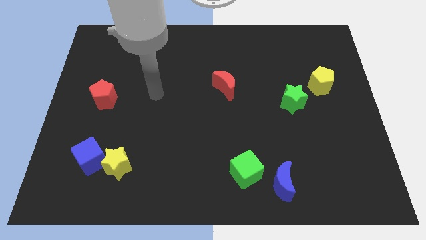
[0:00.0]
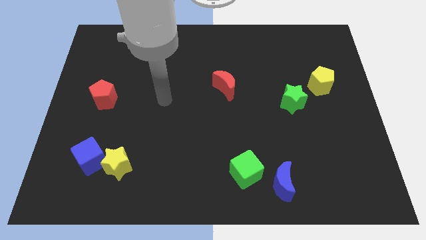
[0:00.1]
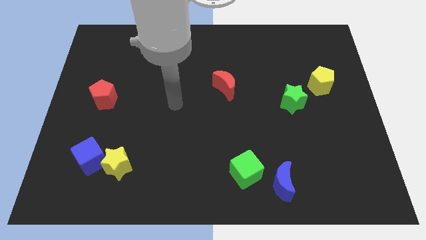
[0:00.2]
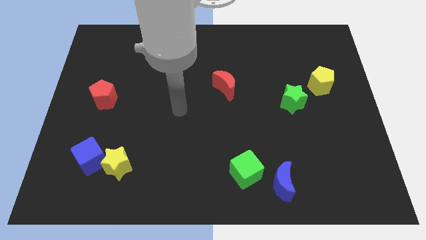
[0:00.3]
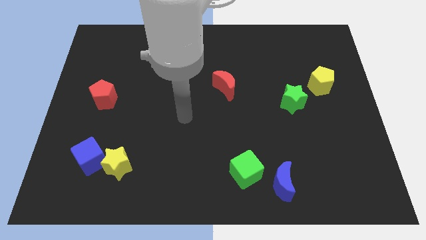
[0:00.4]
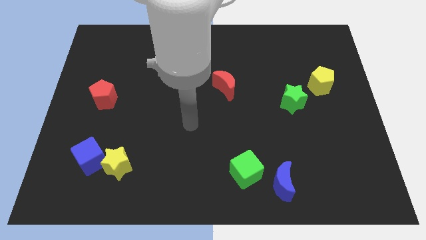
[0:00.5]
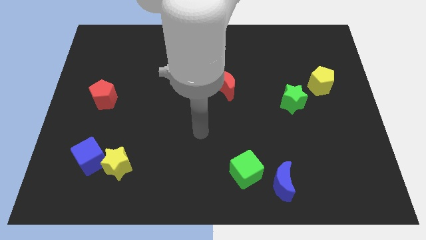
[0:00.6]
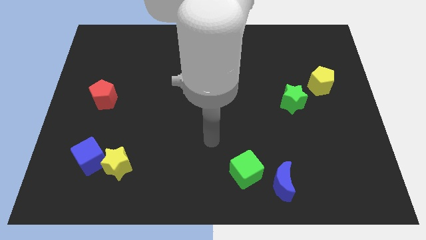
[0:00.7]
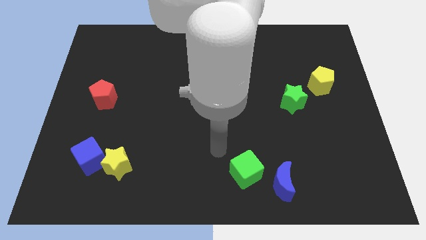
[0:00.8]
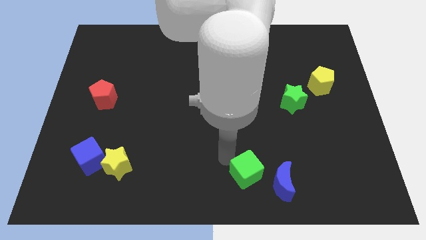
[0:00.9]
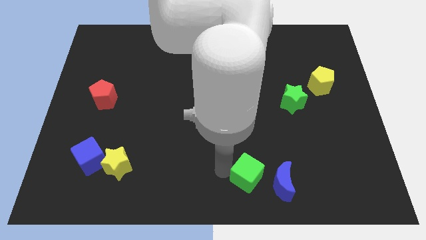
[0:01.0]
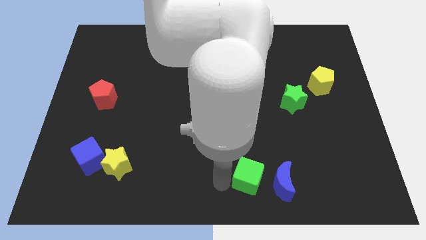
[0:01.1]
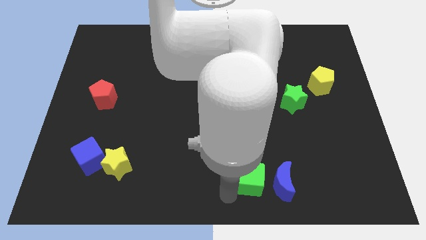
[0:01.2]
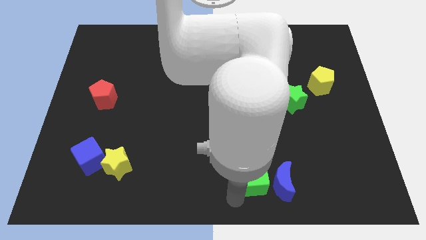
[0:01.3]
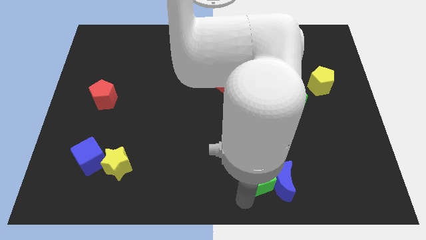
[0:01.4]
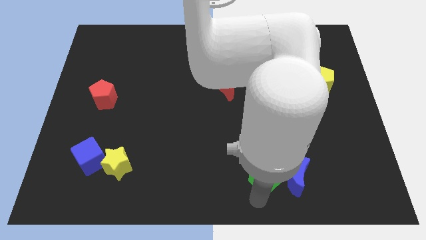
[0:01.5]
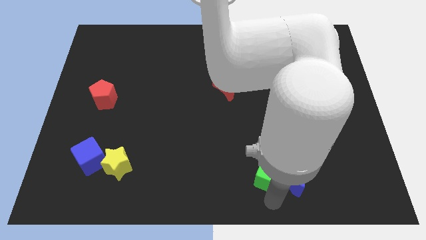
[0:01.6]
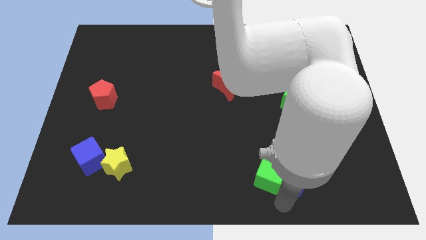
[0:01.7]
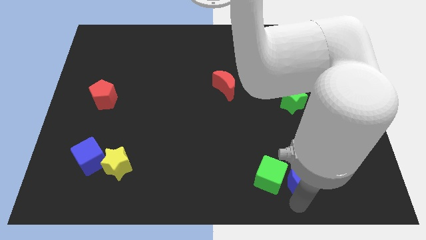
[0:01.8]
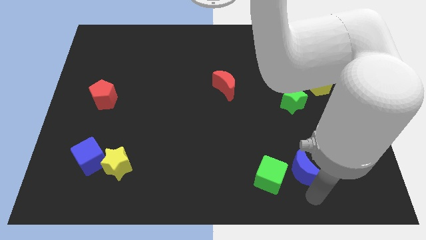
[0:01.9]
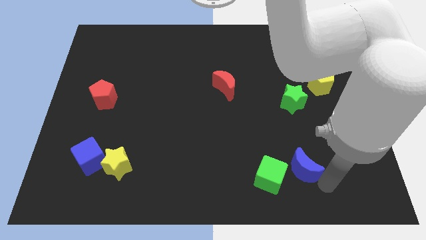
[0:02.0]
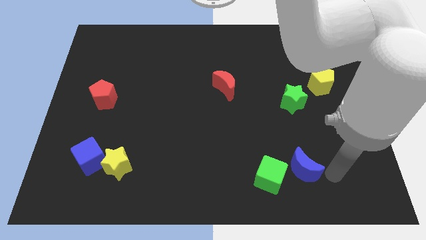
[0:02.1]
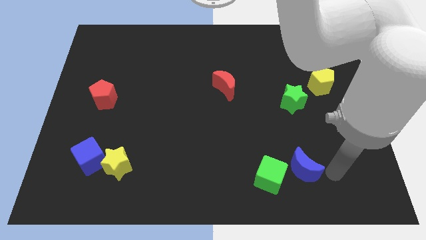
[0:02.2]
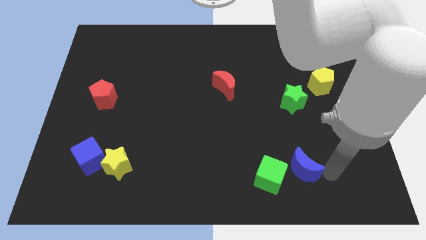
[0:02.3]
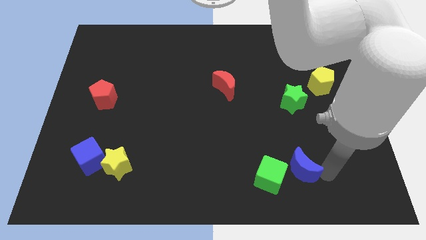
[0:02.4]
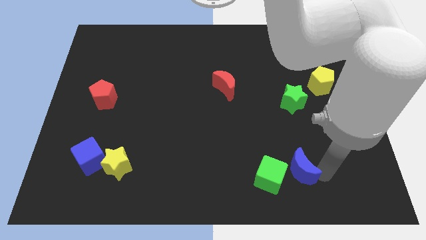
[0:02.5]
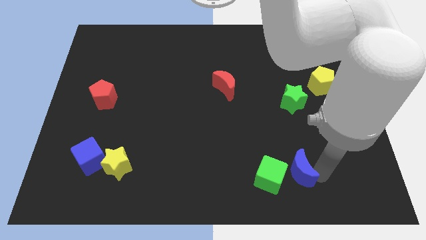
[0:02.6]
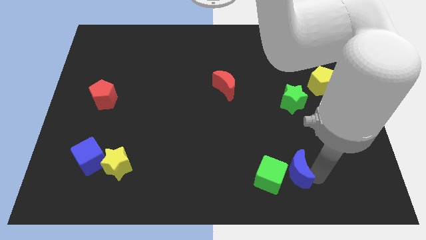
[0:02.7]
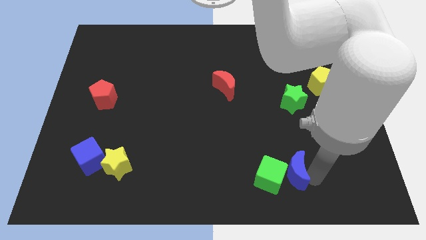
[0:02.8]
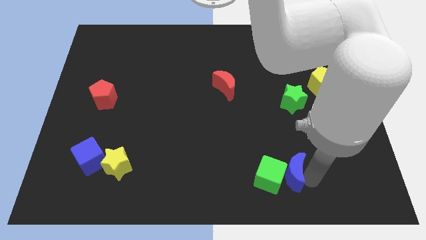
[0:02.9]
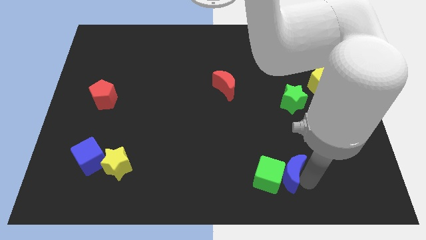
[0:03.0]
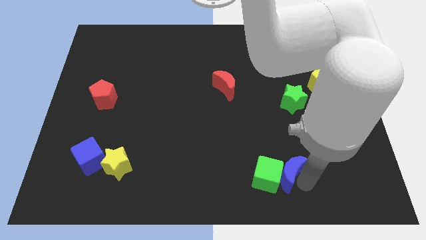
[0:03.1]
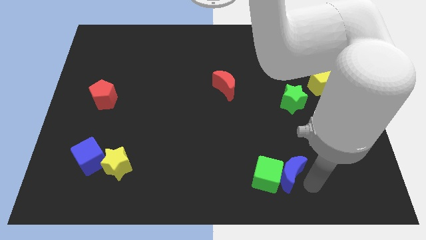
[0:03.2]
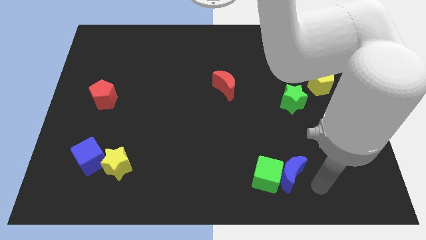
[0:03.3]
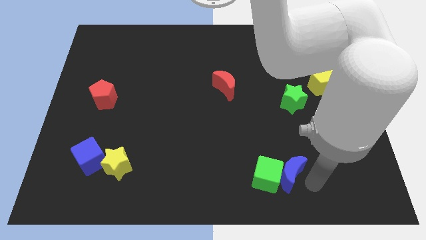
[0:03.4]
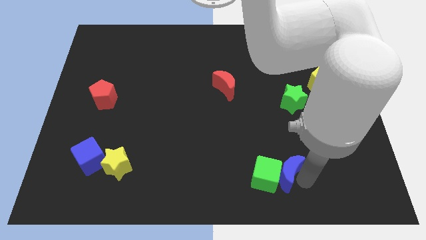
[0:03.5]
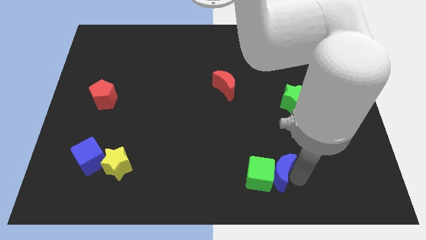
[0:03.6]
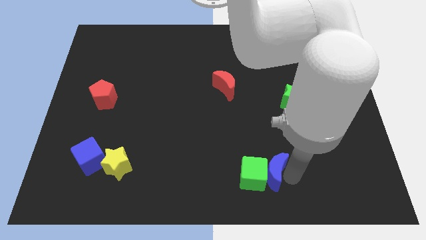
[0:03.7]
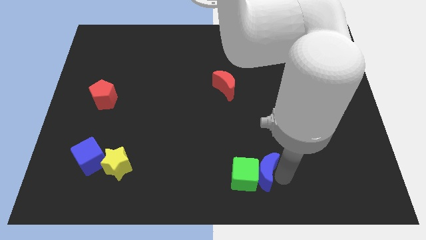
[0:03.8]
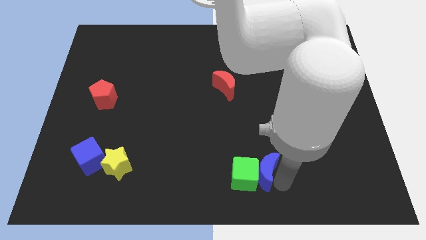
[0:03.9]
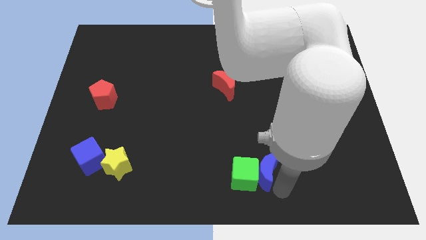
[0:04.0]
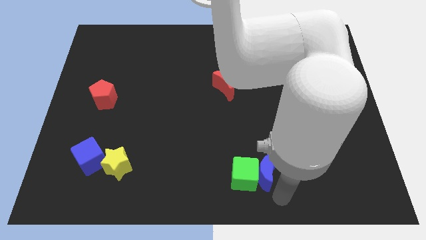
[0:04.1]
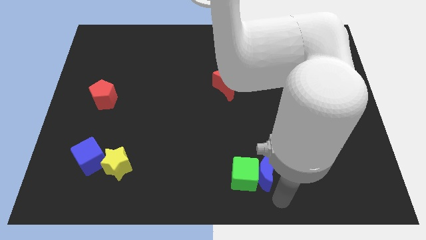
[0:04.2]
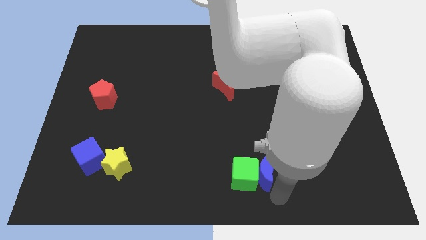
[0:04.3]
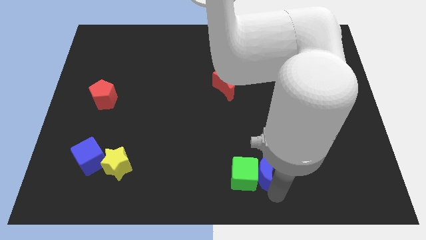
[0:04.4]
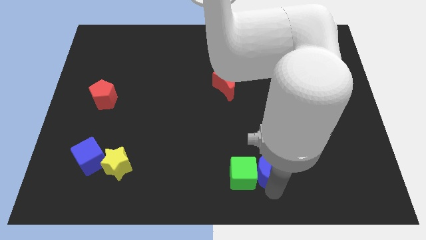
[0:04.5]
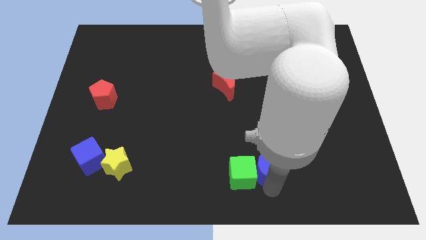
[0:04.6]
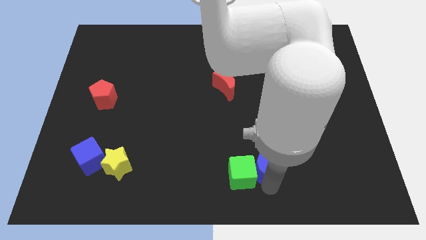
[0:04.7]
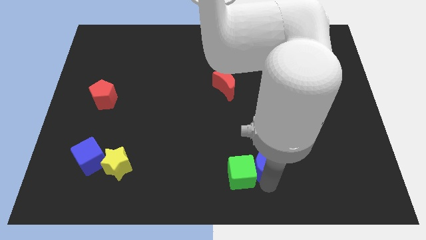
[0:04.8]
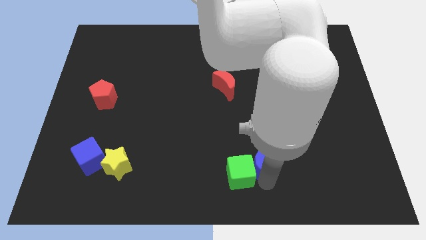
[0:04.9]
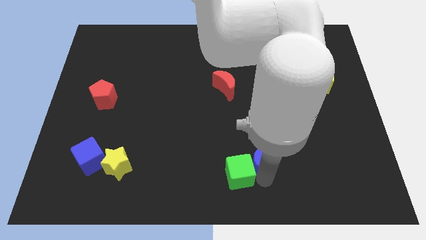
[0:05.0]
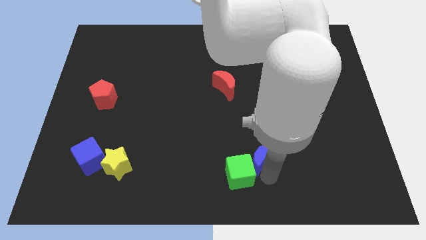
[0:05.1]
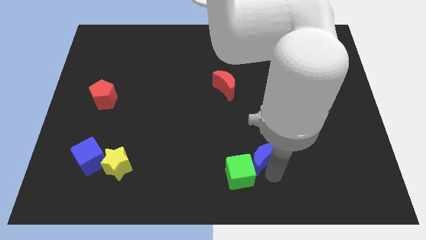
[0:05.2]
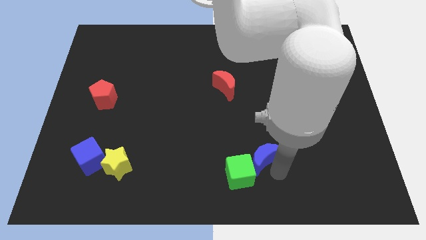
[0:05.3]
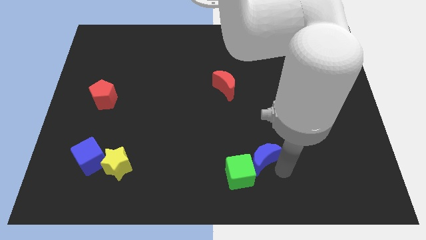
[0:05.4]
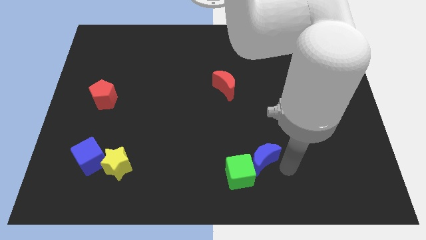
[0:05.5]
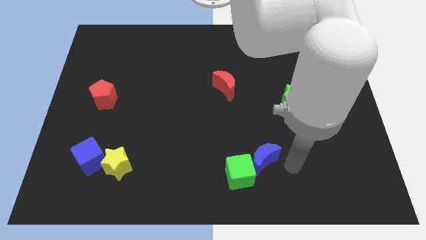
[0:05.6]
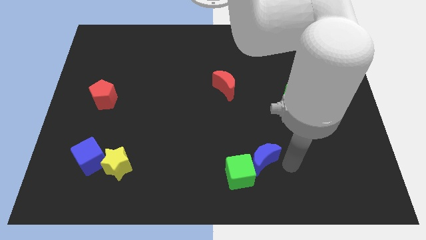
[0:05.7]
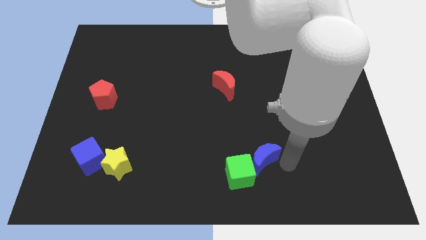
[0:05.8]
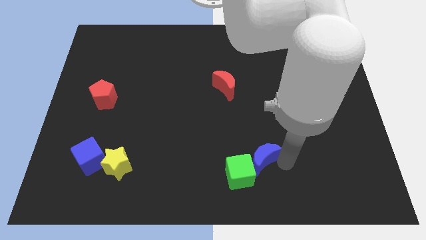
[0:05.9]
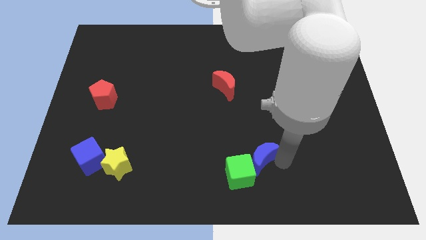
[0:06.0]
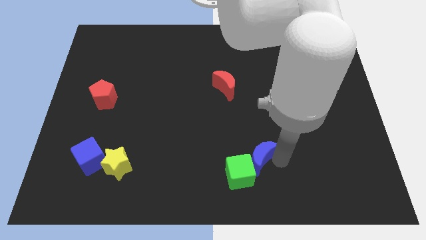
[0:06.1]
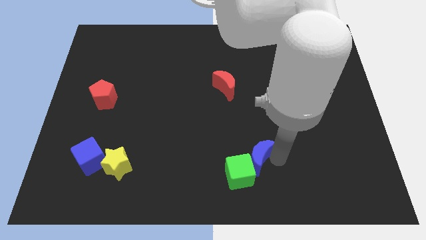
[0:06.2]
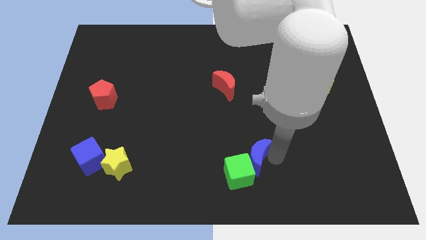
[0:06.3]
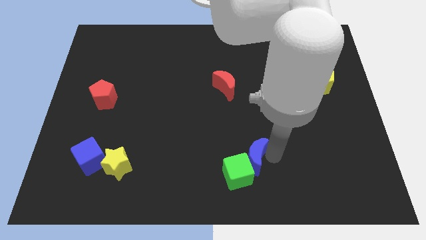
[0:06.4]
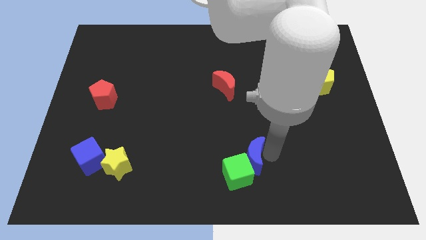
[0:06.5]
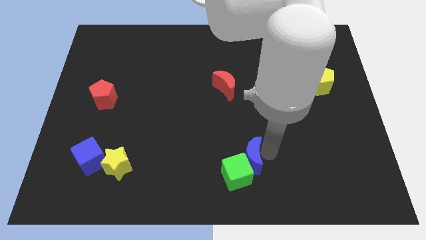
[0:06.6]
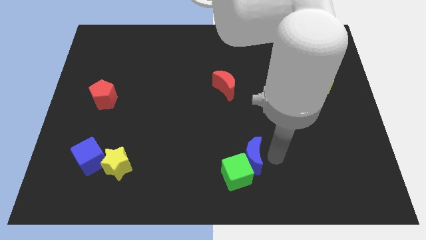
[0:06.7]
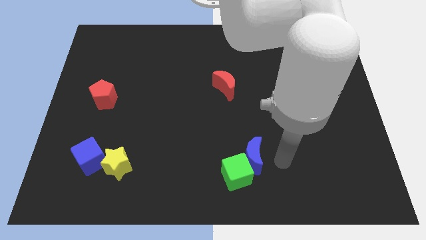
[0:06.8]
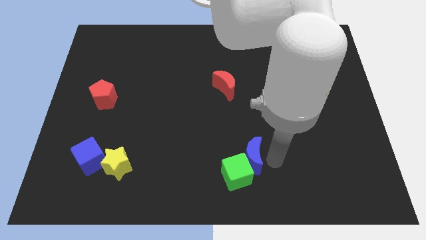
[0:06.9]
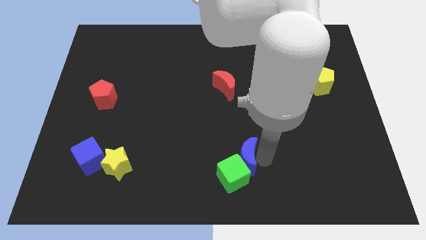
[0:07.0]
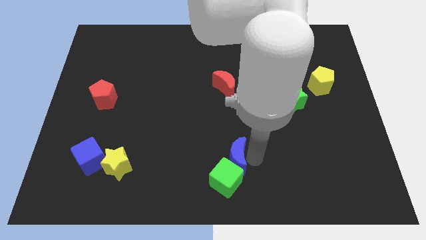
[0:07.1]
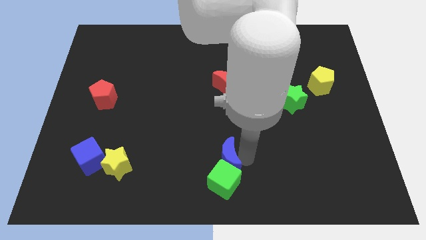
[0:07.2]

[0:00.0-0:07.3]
move the blue moon to the top left of the green cube
